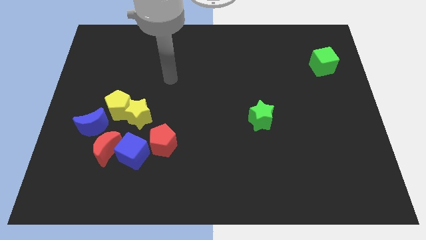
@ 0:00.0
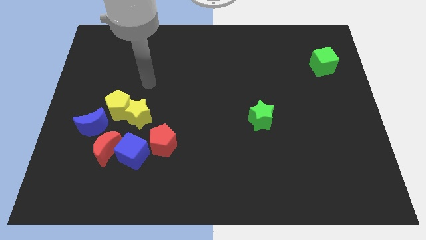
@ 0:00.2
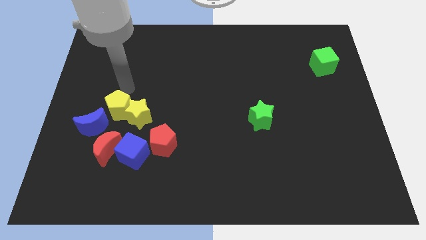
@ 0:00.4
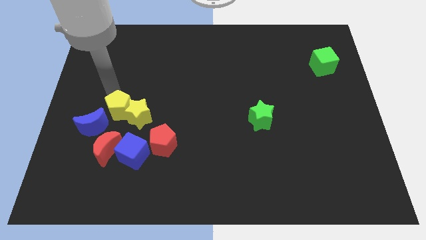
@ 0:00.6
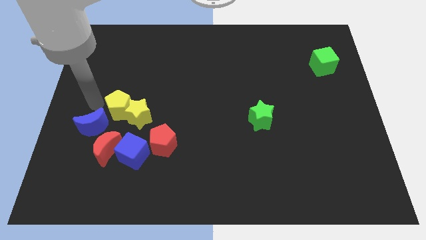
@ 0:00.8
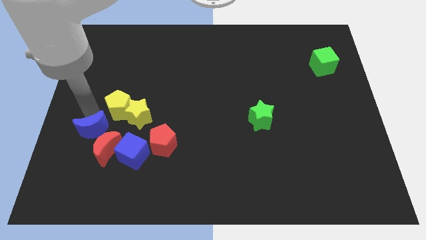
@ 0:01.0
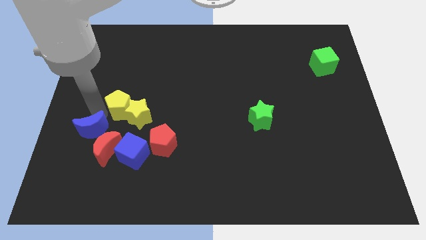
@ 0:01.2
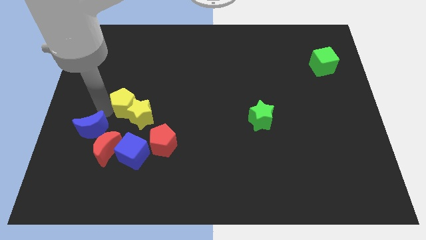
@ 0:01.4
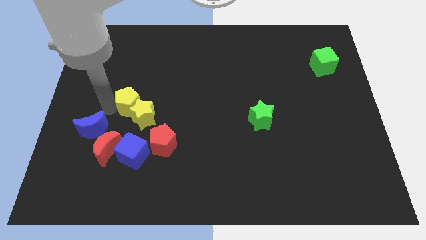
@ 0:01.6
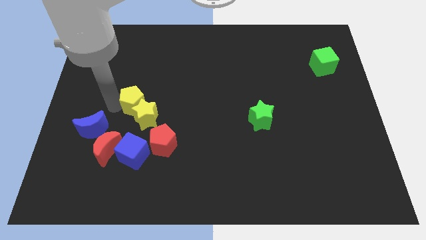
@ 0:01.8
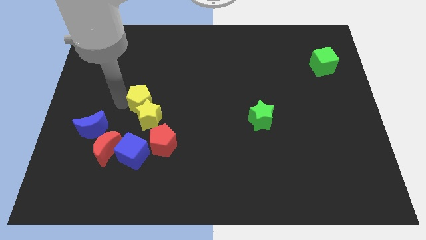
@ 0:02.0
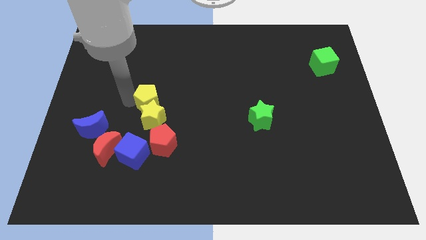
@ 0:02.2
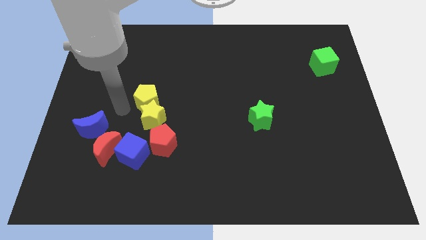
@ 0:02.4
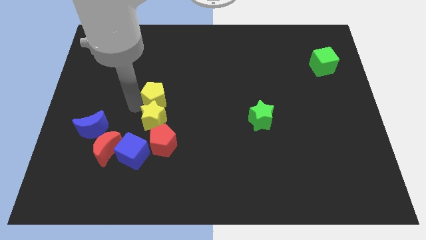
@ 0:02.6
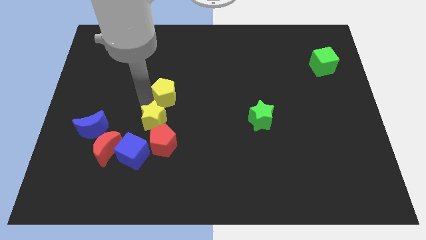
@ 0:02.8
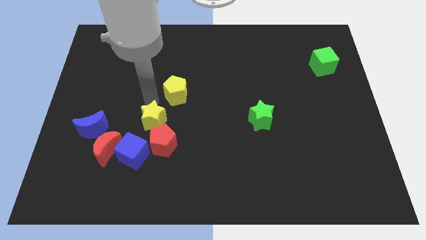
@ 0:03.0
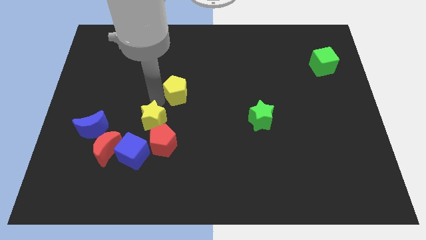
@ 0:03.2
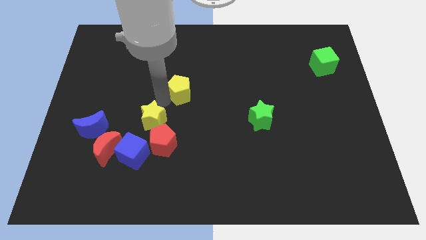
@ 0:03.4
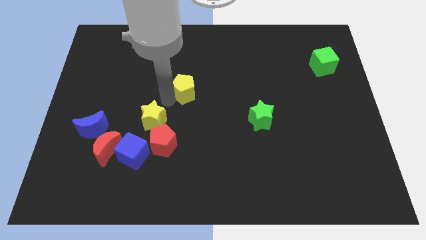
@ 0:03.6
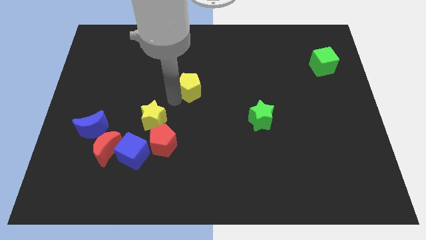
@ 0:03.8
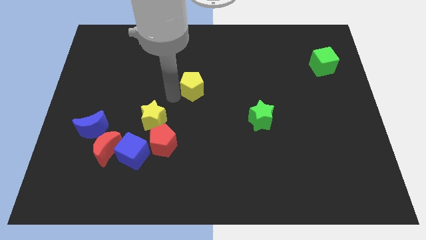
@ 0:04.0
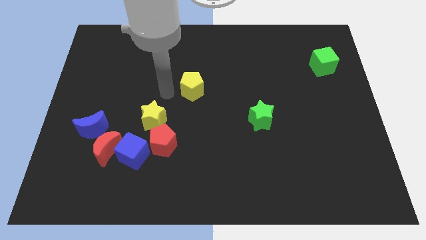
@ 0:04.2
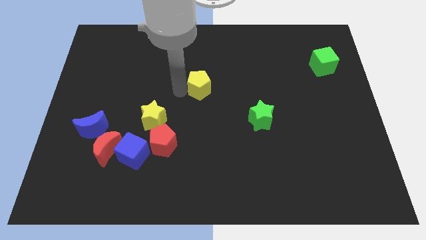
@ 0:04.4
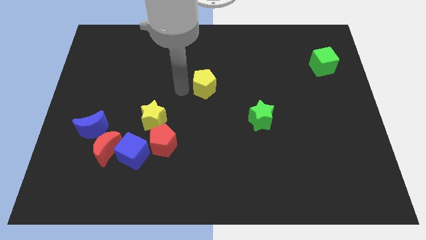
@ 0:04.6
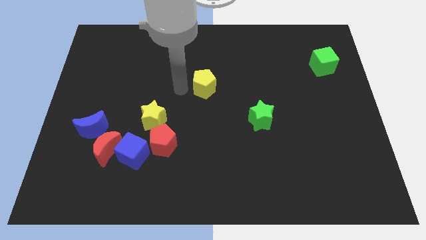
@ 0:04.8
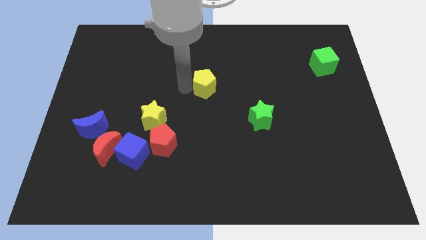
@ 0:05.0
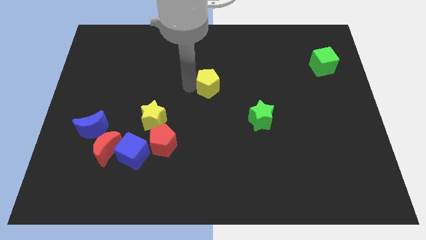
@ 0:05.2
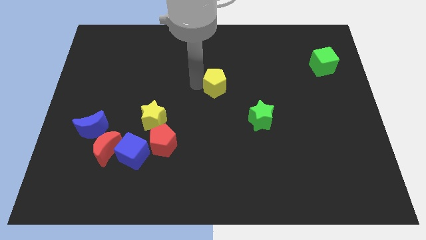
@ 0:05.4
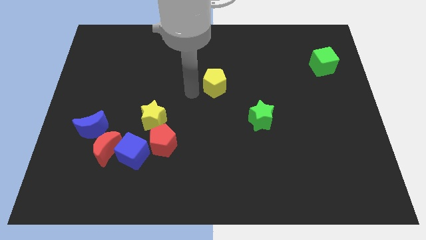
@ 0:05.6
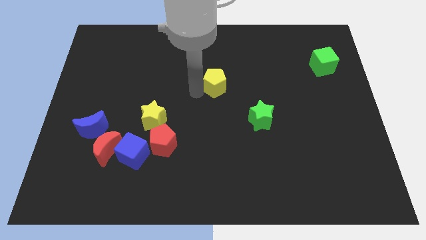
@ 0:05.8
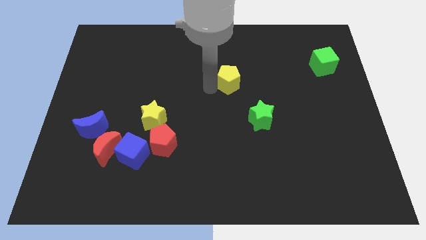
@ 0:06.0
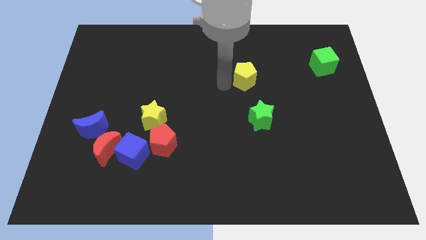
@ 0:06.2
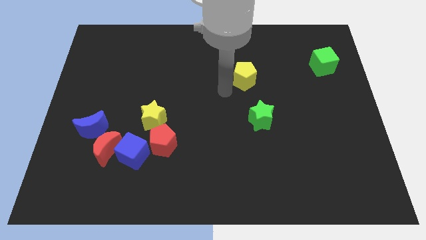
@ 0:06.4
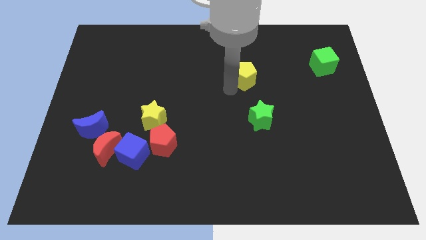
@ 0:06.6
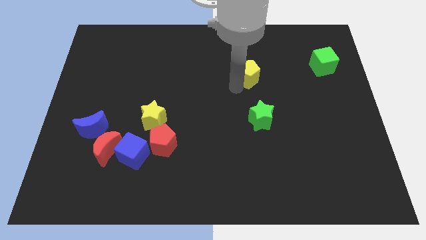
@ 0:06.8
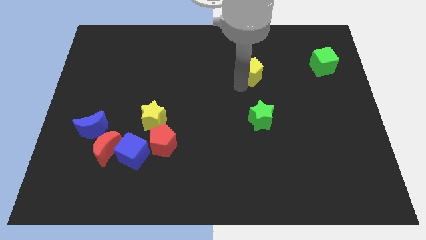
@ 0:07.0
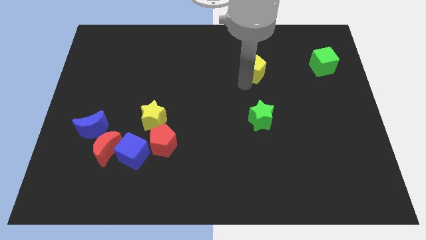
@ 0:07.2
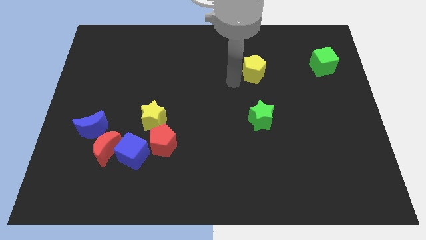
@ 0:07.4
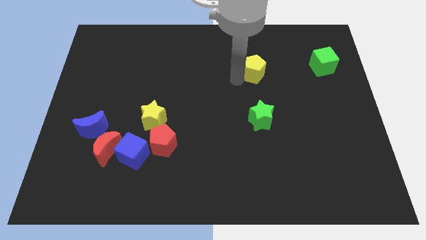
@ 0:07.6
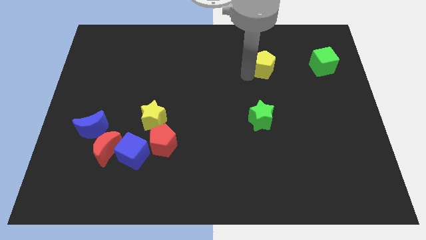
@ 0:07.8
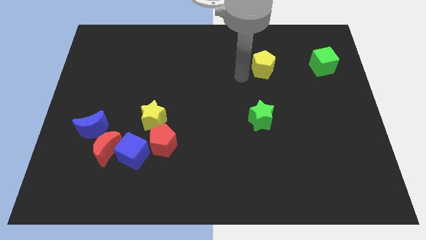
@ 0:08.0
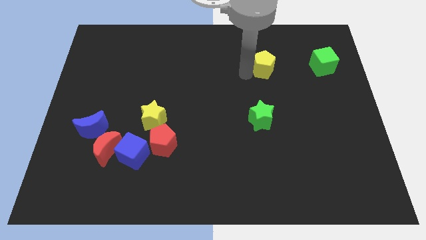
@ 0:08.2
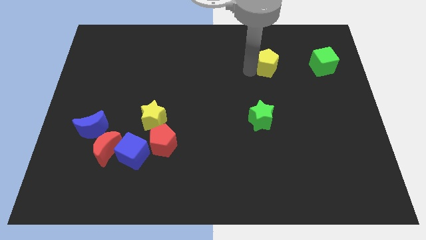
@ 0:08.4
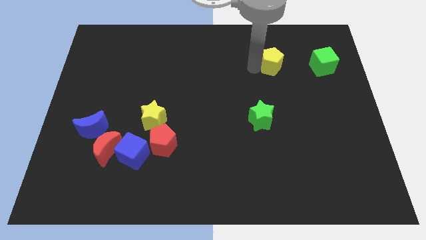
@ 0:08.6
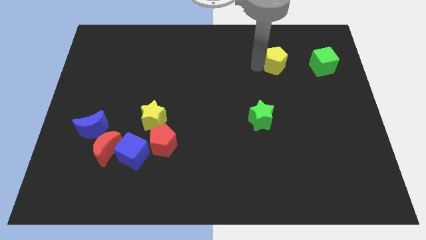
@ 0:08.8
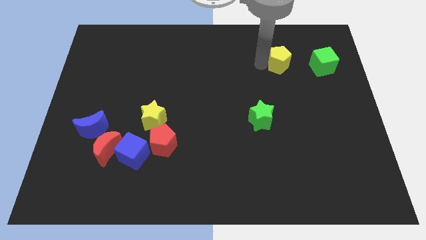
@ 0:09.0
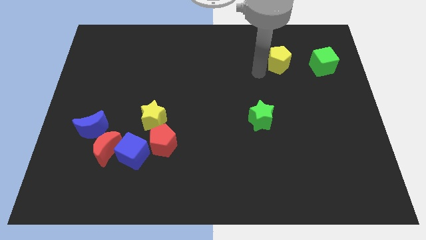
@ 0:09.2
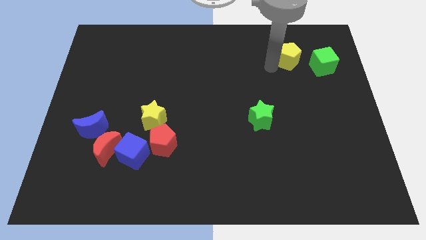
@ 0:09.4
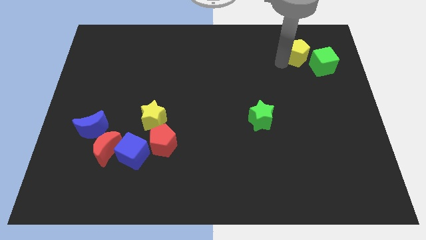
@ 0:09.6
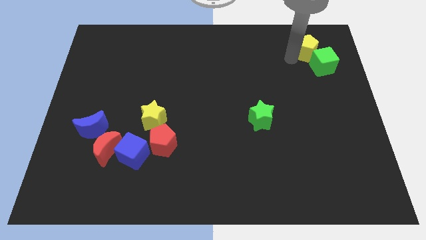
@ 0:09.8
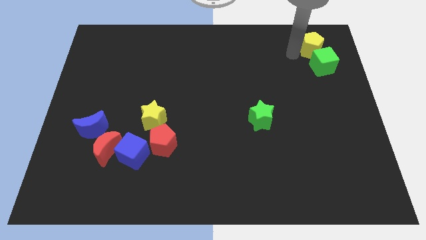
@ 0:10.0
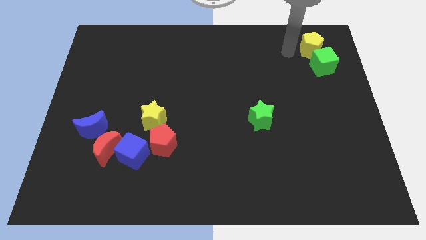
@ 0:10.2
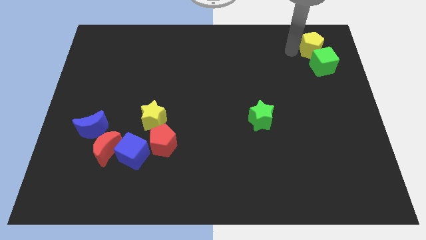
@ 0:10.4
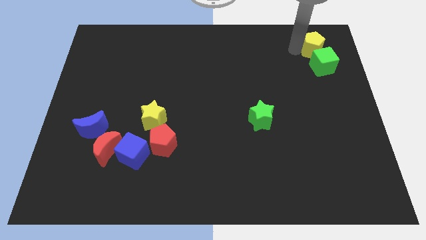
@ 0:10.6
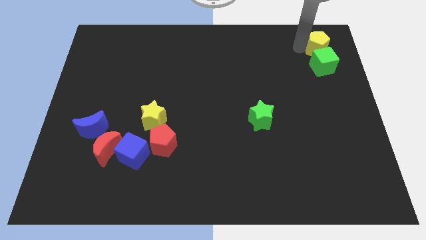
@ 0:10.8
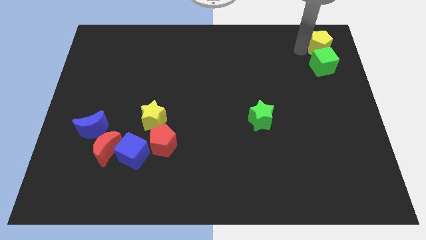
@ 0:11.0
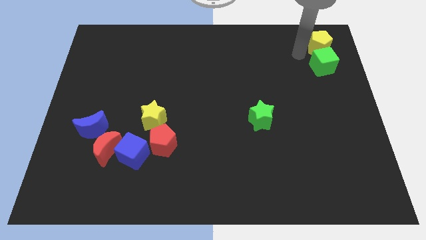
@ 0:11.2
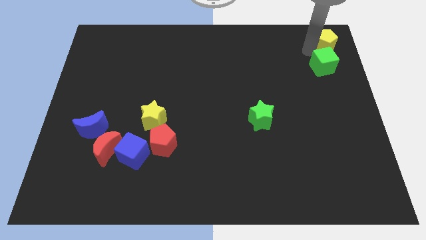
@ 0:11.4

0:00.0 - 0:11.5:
slide the yellow pentagon to the top right corner
